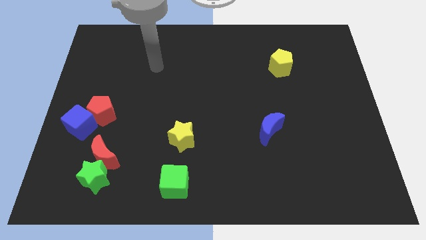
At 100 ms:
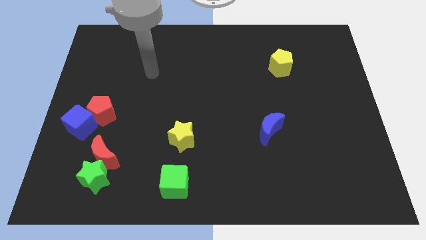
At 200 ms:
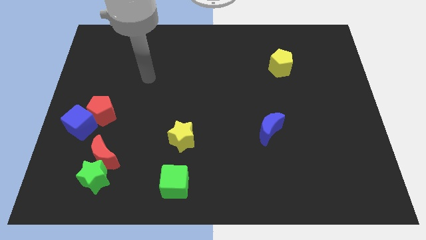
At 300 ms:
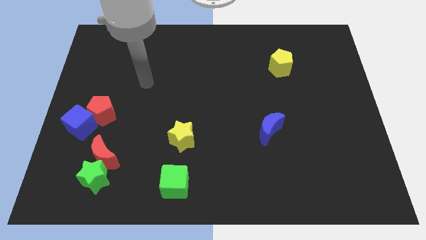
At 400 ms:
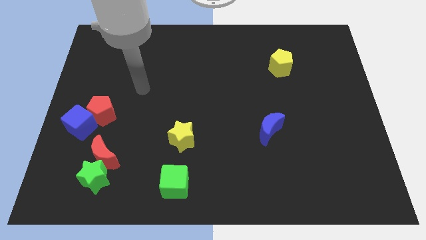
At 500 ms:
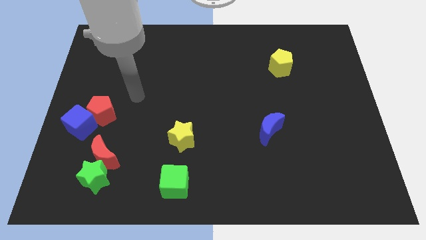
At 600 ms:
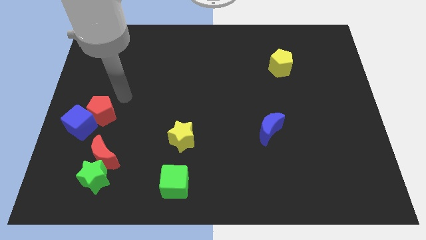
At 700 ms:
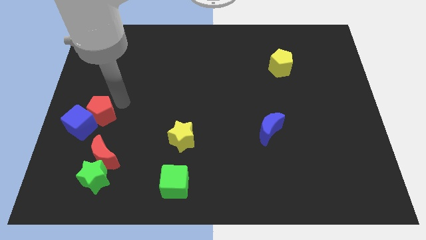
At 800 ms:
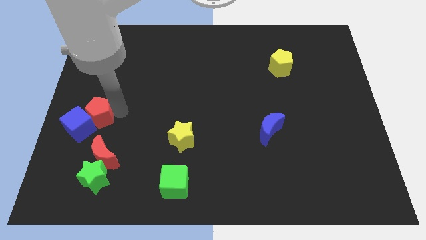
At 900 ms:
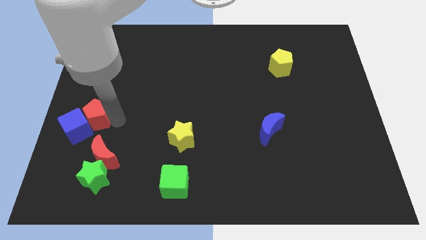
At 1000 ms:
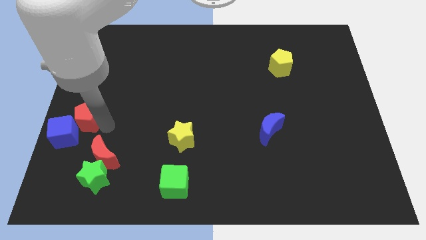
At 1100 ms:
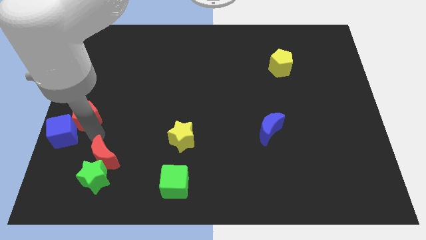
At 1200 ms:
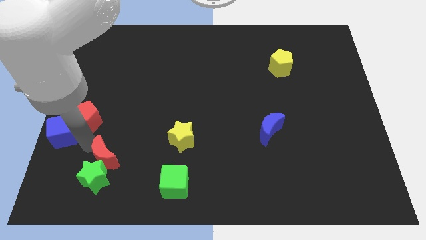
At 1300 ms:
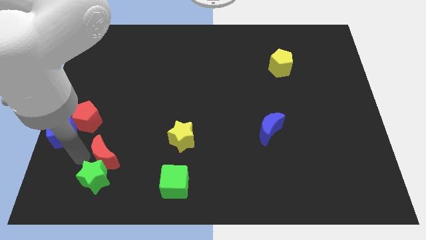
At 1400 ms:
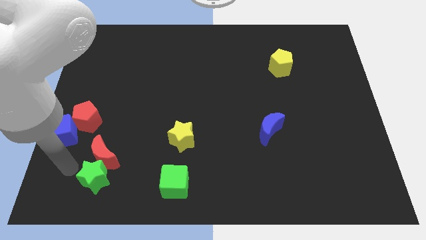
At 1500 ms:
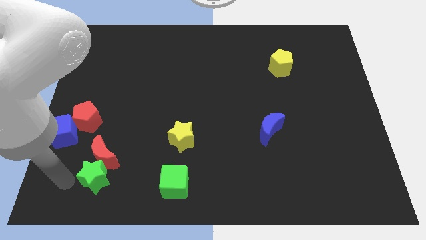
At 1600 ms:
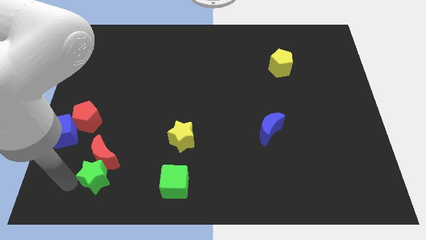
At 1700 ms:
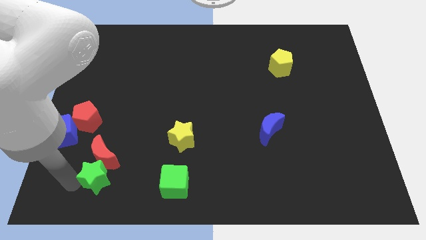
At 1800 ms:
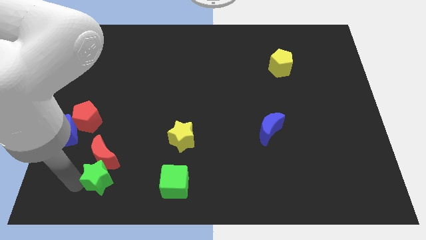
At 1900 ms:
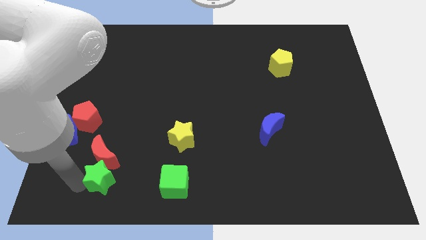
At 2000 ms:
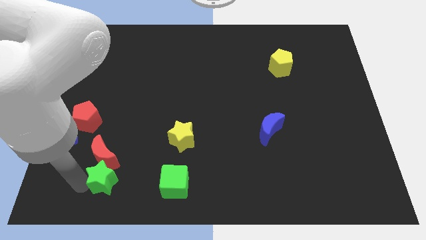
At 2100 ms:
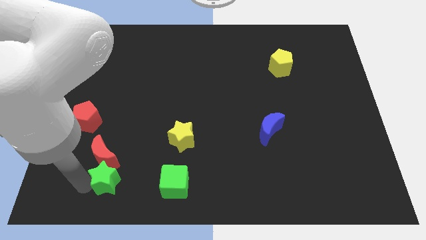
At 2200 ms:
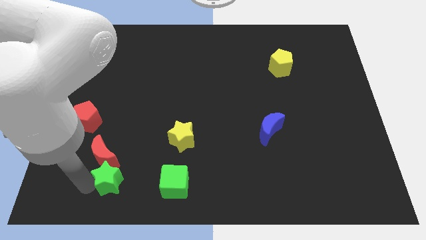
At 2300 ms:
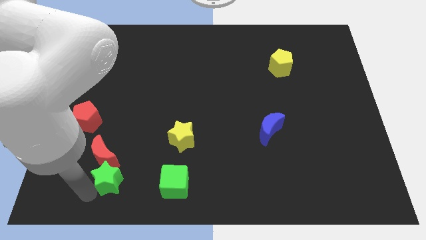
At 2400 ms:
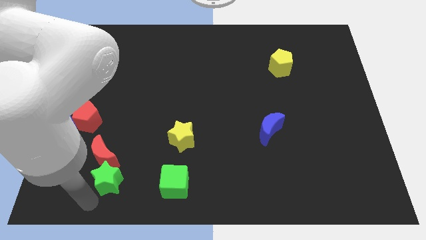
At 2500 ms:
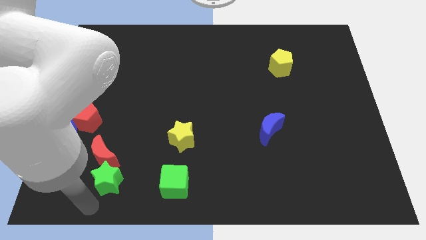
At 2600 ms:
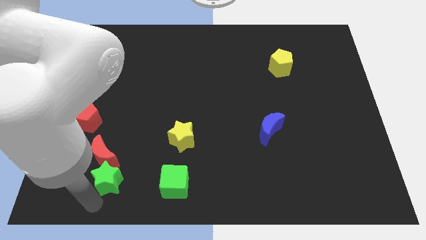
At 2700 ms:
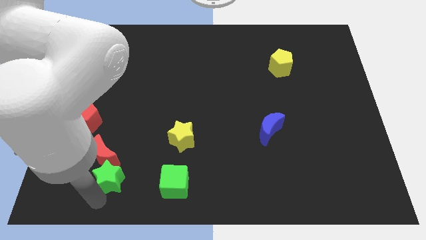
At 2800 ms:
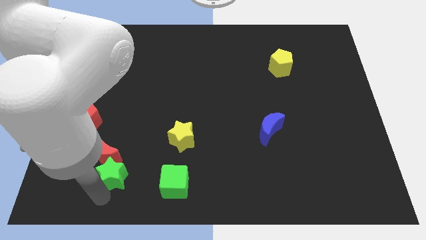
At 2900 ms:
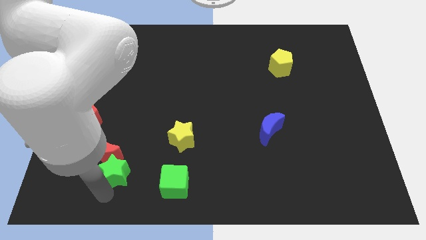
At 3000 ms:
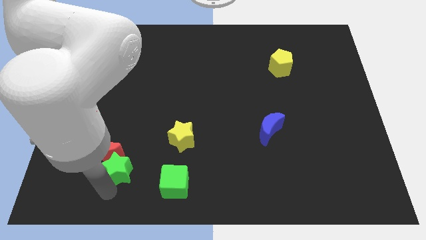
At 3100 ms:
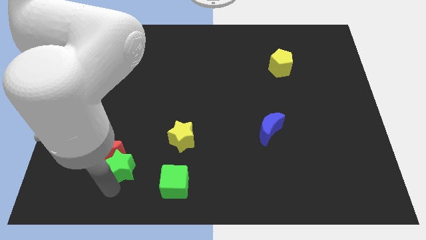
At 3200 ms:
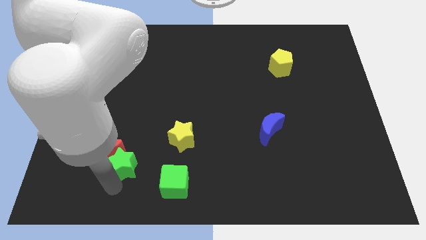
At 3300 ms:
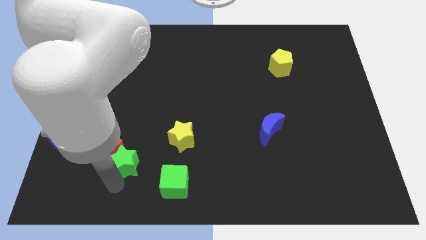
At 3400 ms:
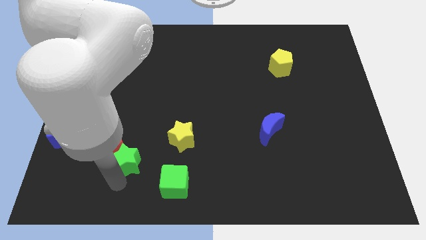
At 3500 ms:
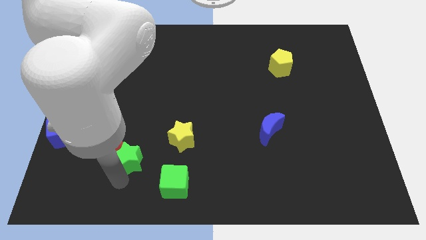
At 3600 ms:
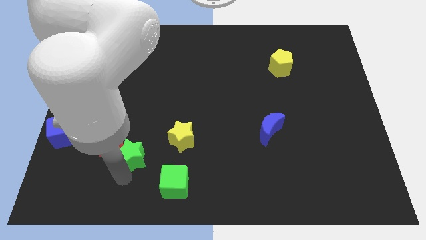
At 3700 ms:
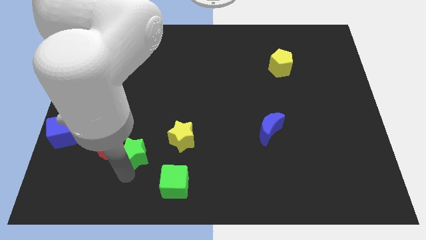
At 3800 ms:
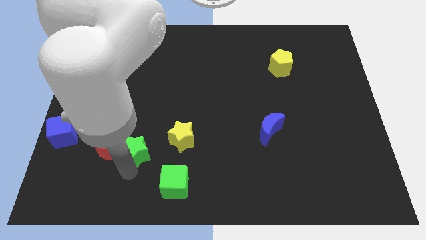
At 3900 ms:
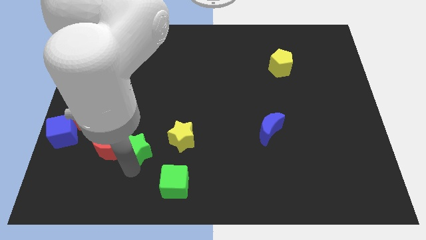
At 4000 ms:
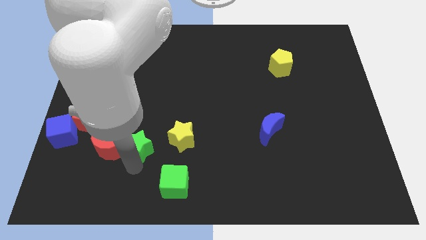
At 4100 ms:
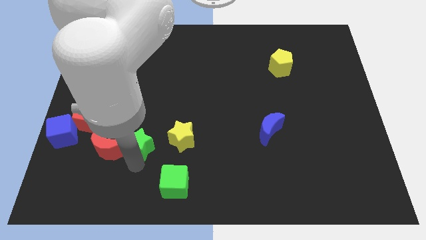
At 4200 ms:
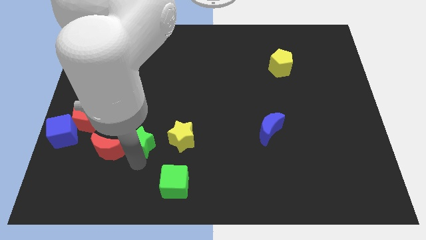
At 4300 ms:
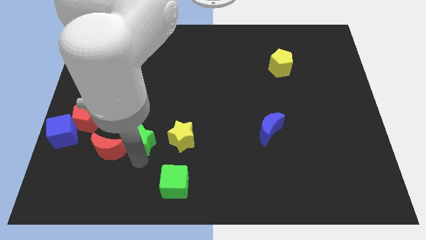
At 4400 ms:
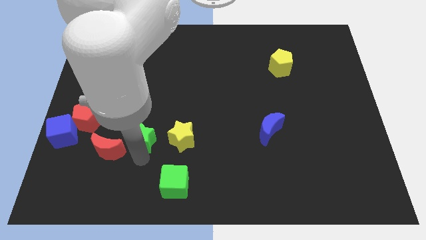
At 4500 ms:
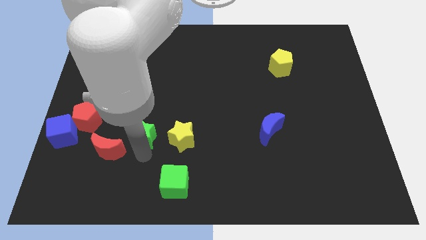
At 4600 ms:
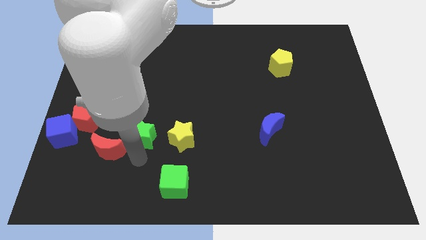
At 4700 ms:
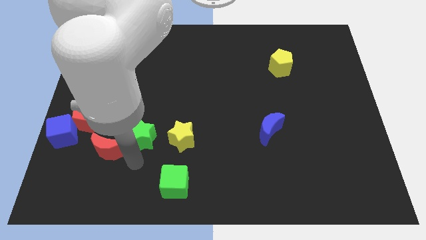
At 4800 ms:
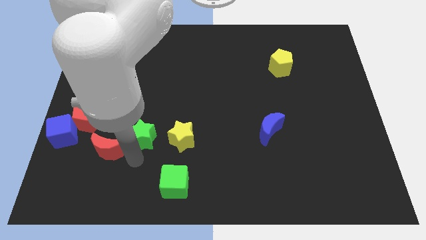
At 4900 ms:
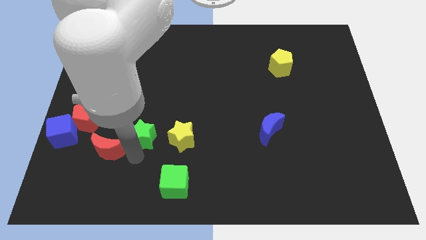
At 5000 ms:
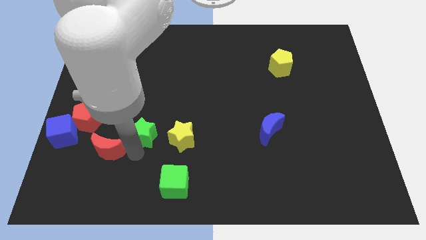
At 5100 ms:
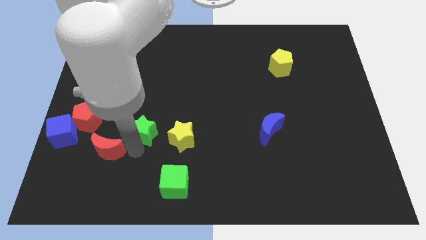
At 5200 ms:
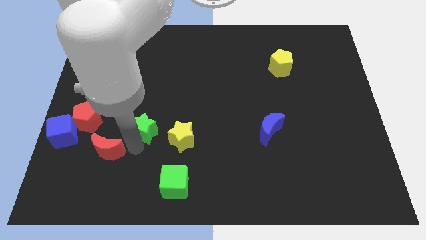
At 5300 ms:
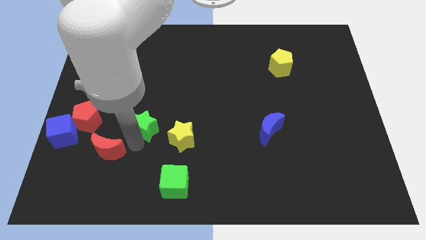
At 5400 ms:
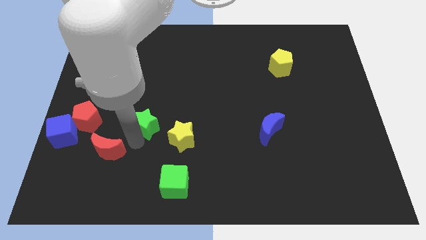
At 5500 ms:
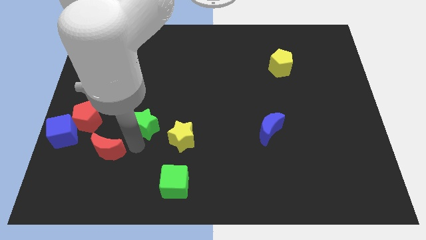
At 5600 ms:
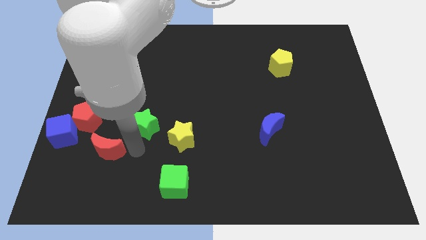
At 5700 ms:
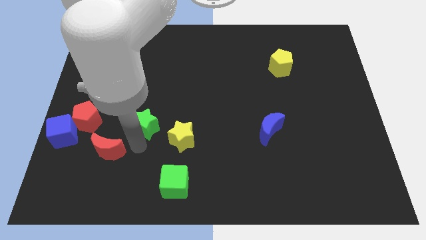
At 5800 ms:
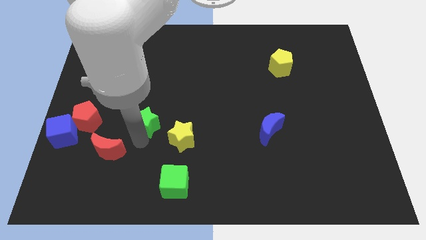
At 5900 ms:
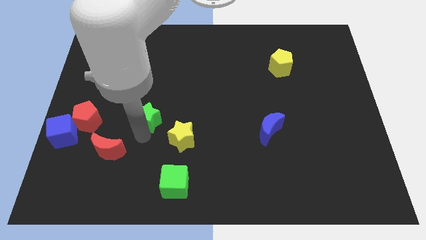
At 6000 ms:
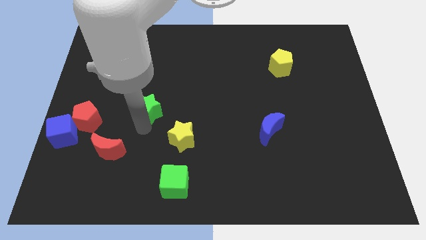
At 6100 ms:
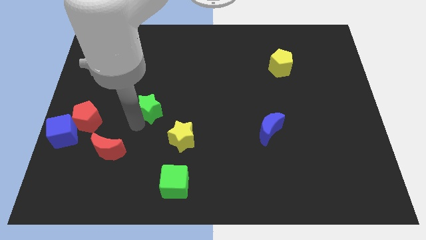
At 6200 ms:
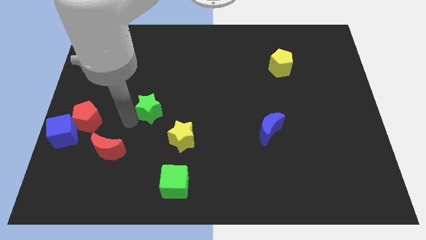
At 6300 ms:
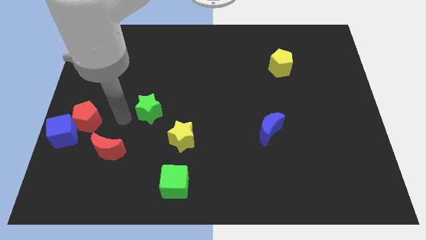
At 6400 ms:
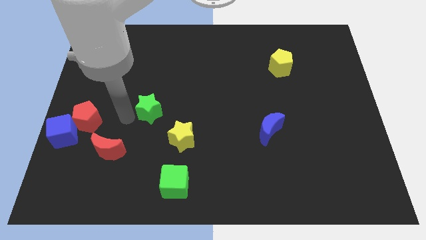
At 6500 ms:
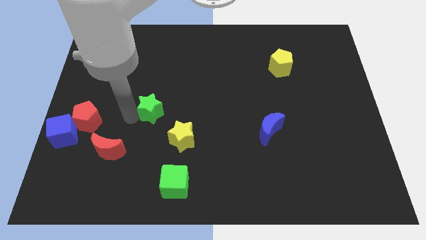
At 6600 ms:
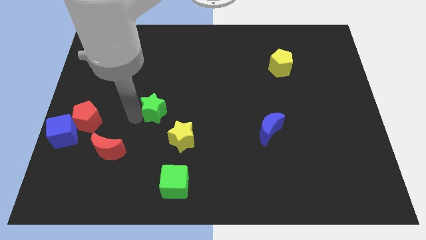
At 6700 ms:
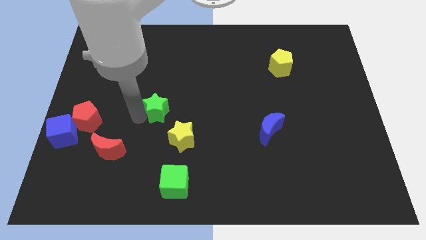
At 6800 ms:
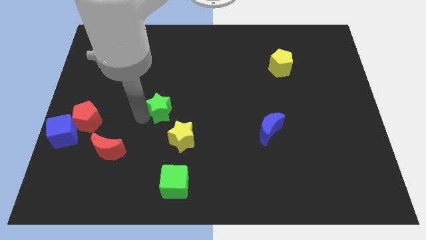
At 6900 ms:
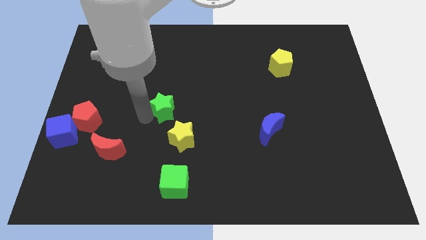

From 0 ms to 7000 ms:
push the green star to the top side of the yellow star
